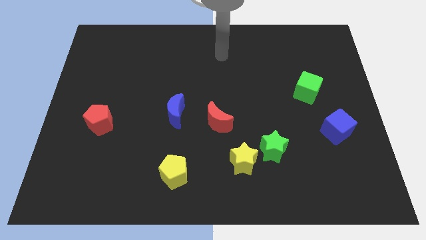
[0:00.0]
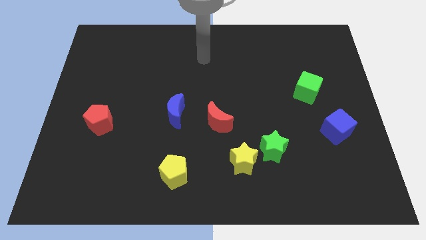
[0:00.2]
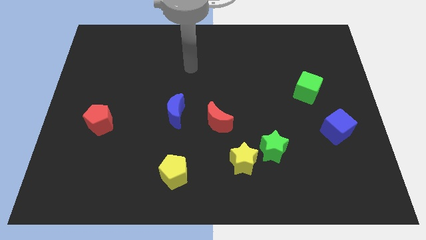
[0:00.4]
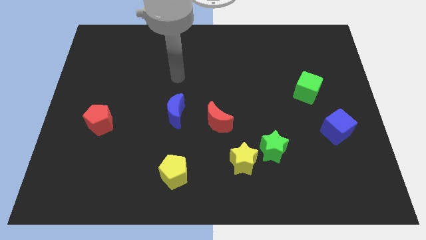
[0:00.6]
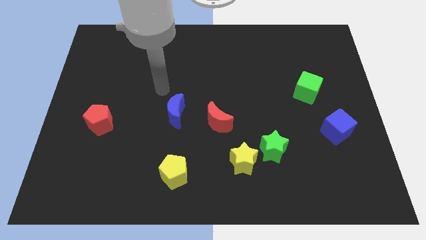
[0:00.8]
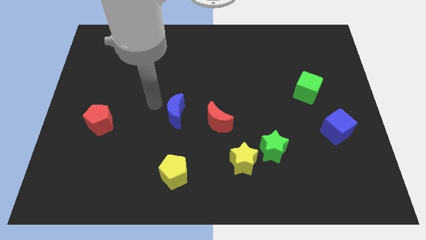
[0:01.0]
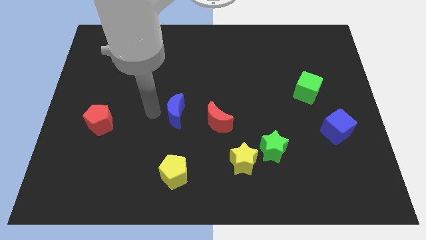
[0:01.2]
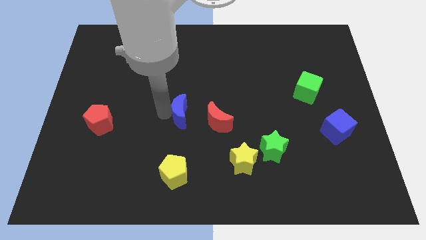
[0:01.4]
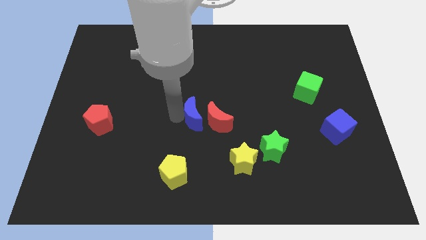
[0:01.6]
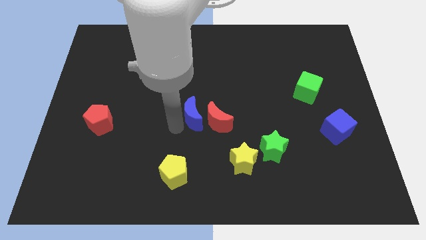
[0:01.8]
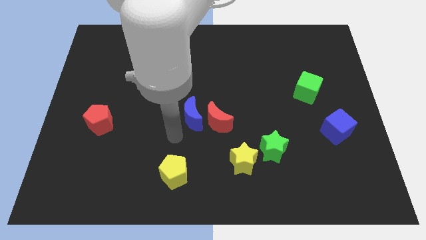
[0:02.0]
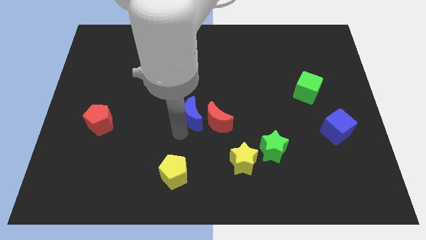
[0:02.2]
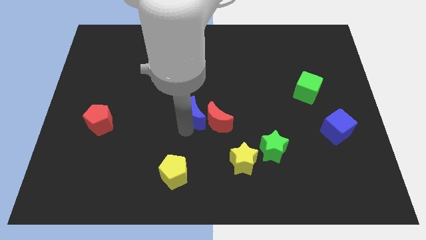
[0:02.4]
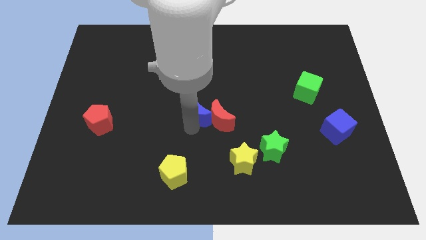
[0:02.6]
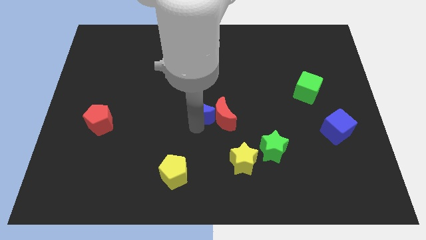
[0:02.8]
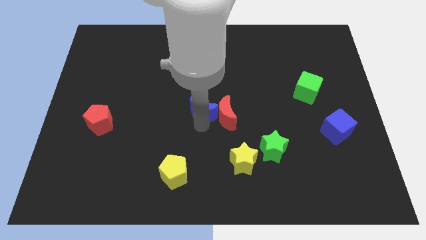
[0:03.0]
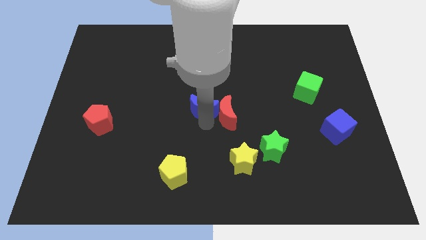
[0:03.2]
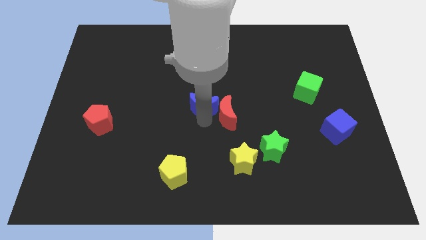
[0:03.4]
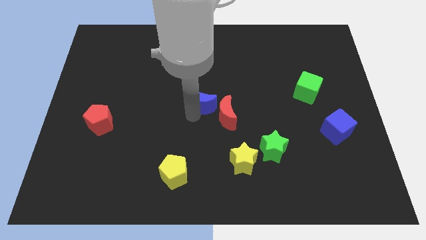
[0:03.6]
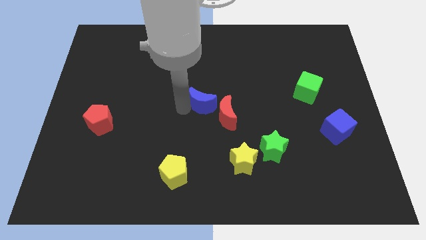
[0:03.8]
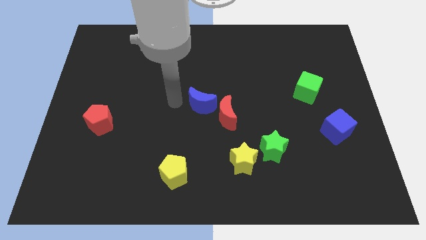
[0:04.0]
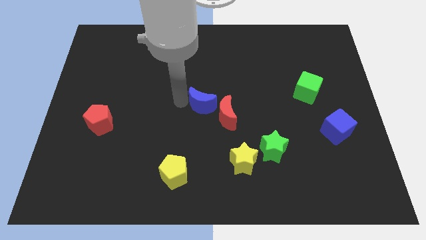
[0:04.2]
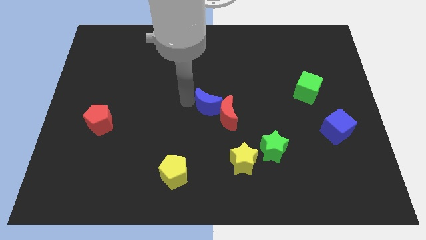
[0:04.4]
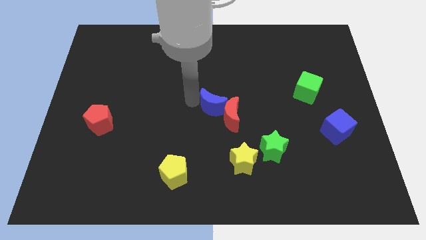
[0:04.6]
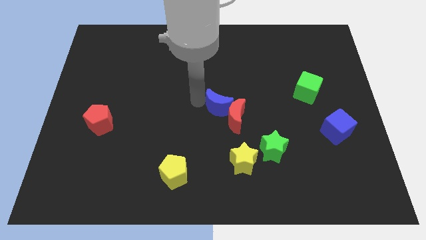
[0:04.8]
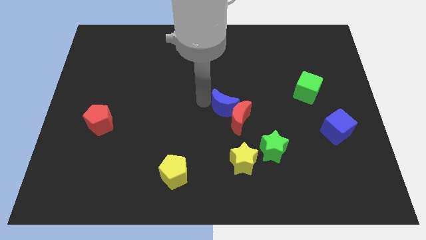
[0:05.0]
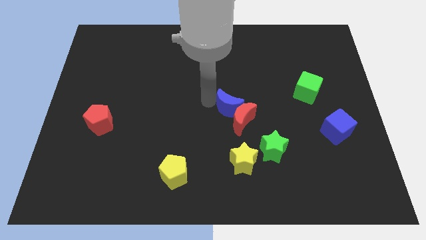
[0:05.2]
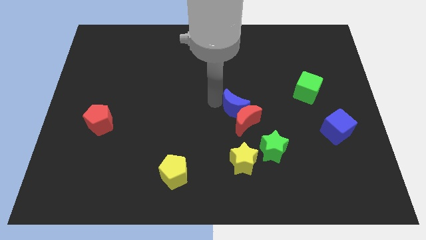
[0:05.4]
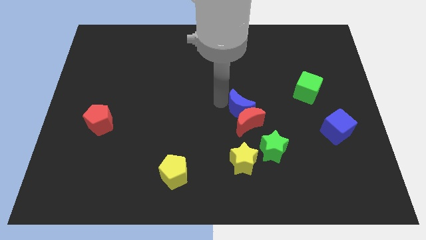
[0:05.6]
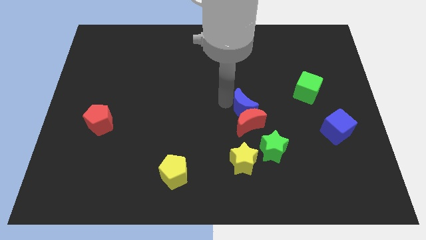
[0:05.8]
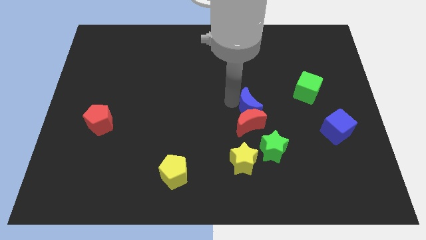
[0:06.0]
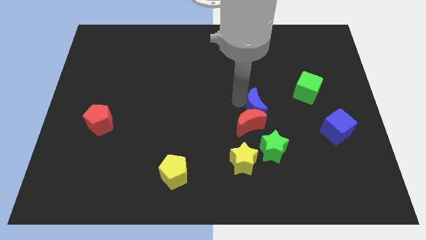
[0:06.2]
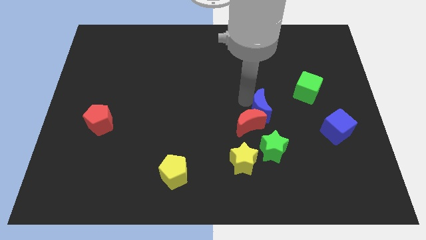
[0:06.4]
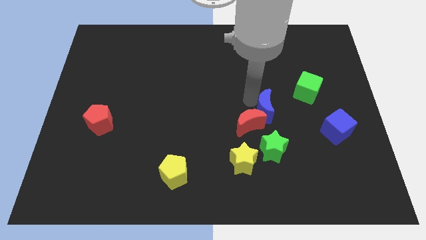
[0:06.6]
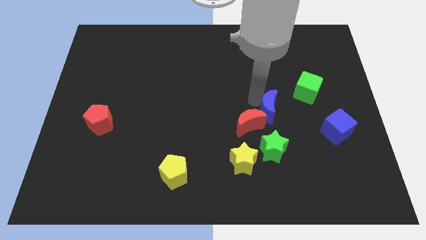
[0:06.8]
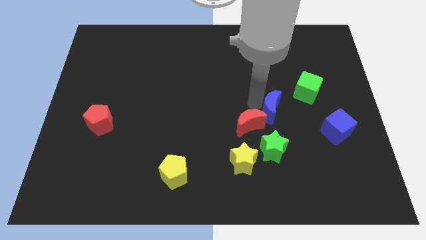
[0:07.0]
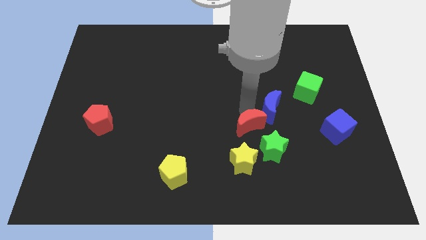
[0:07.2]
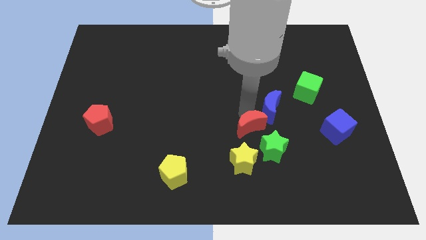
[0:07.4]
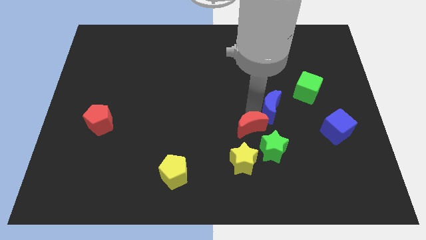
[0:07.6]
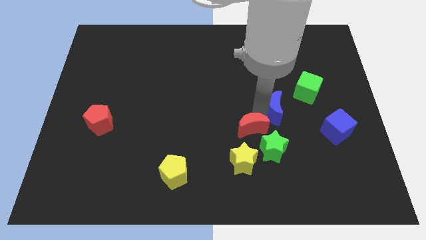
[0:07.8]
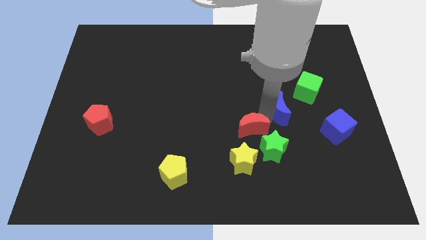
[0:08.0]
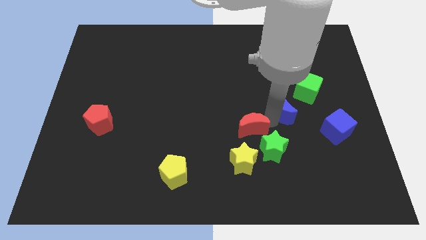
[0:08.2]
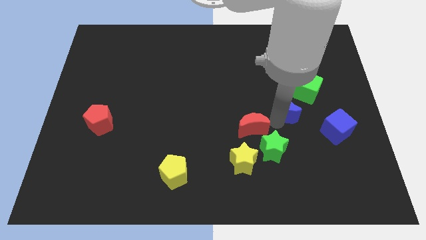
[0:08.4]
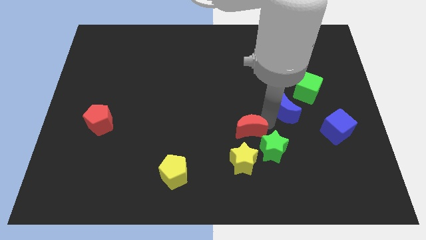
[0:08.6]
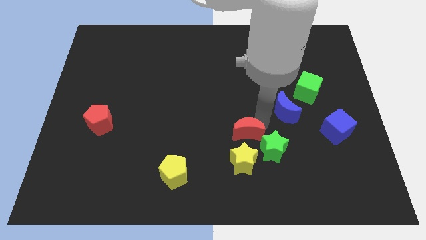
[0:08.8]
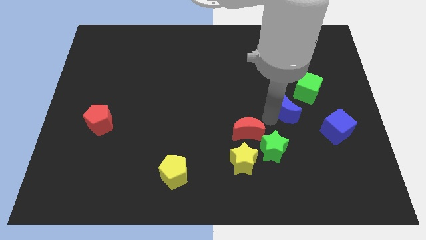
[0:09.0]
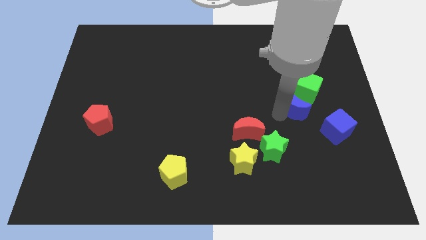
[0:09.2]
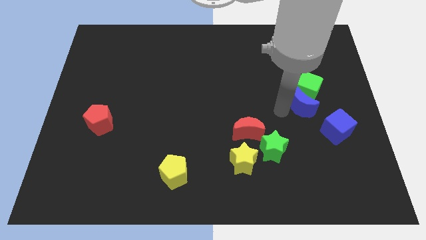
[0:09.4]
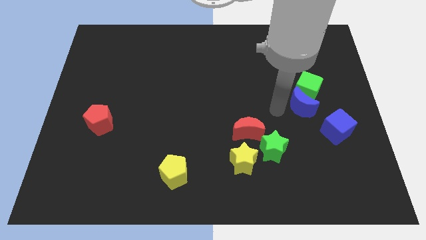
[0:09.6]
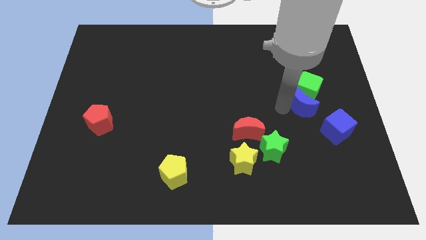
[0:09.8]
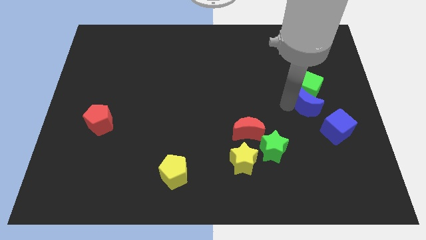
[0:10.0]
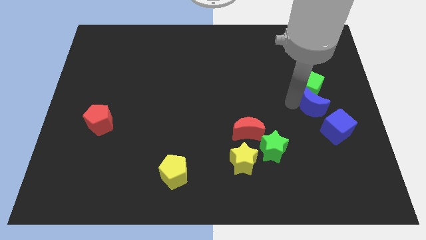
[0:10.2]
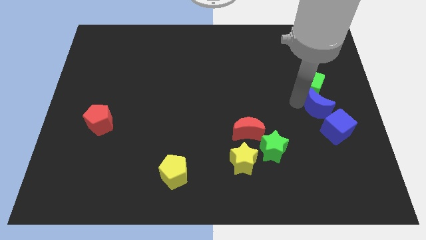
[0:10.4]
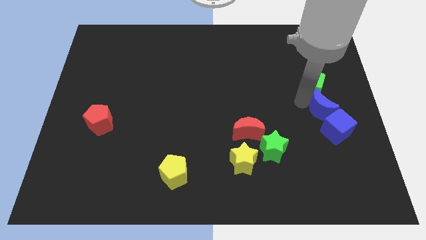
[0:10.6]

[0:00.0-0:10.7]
move the blue moon to the right side

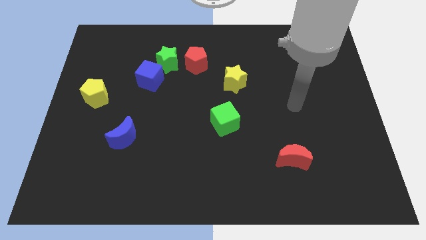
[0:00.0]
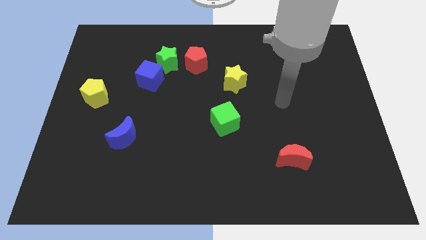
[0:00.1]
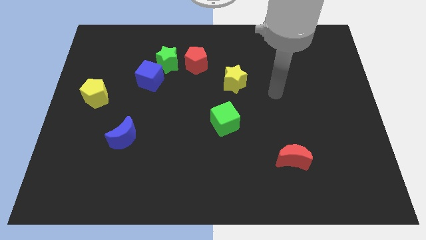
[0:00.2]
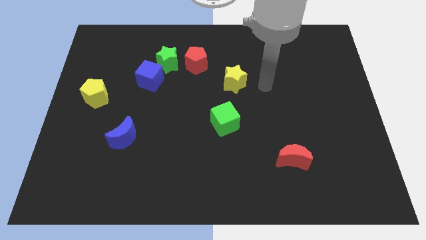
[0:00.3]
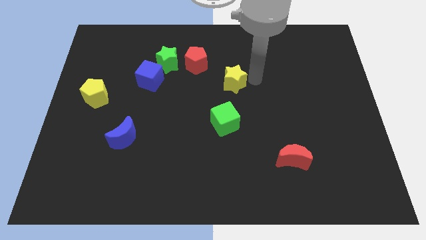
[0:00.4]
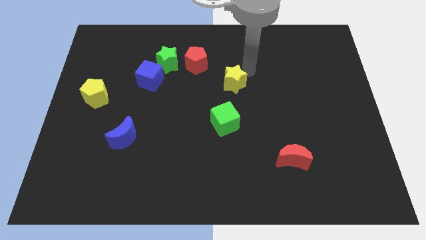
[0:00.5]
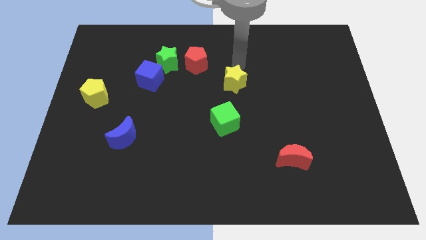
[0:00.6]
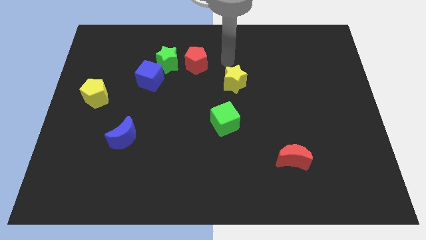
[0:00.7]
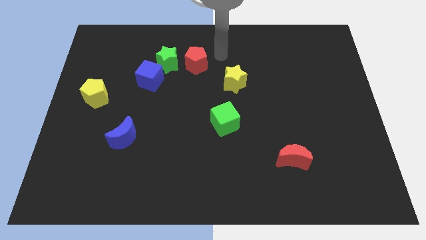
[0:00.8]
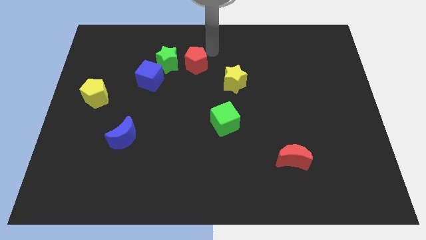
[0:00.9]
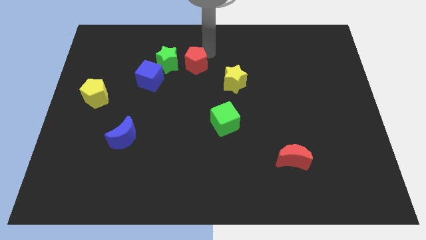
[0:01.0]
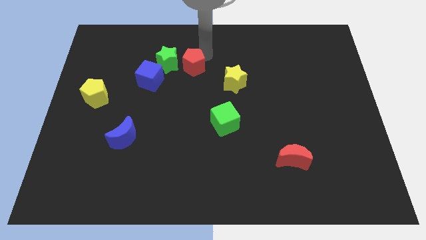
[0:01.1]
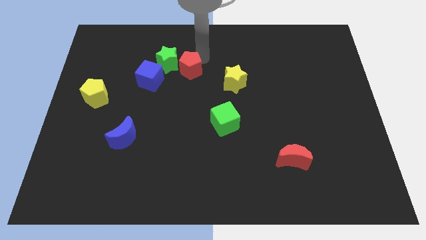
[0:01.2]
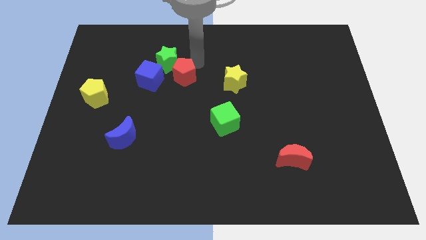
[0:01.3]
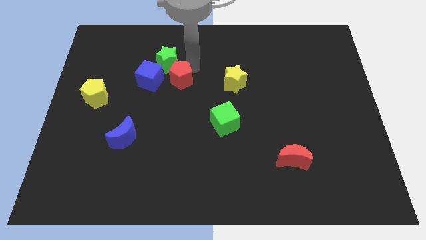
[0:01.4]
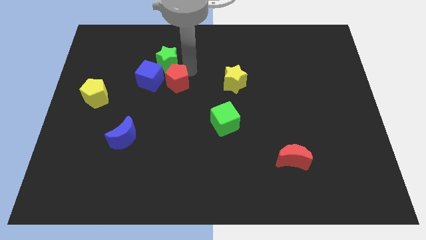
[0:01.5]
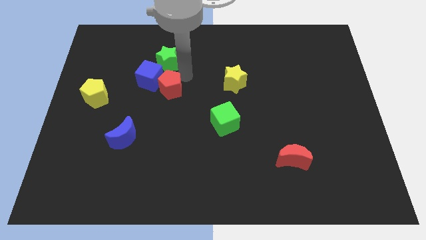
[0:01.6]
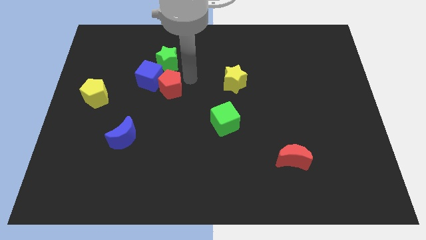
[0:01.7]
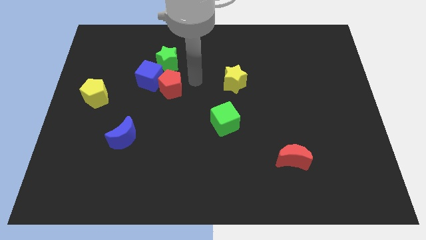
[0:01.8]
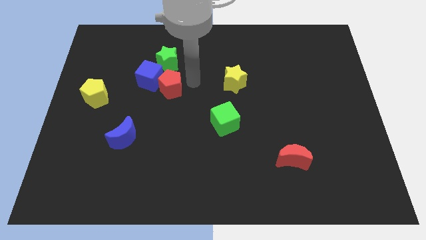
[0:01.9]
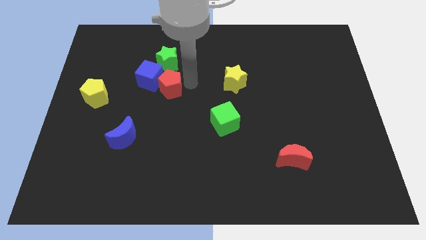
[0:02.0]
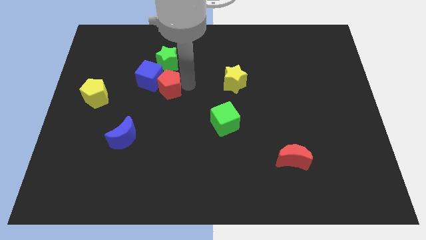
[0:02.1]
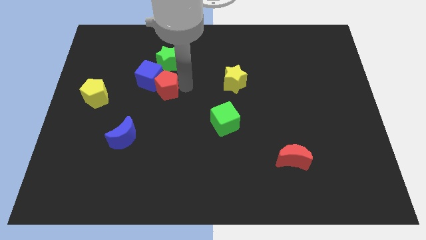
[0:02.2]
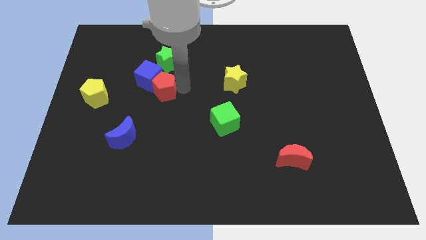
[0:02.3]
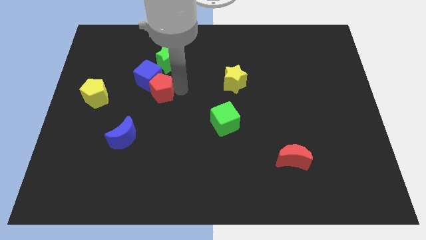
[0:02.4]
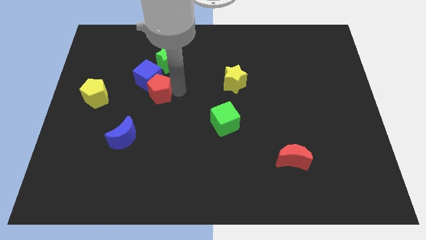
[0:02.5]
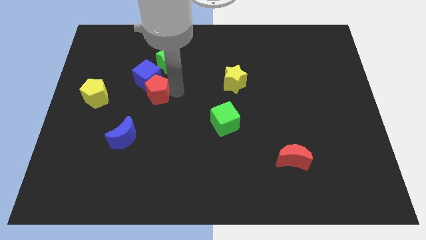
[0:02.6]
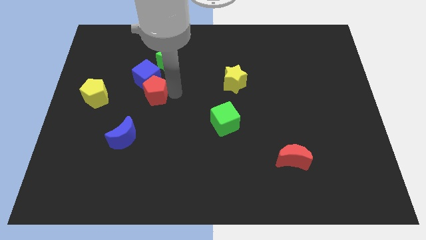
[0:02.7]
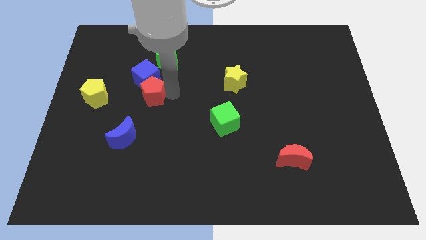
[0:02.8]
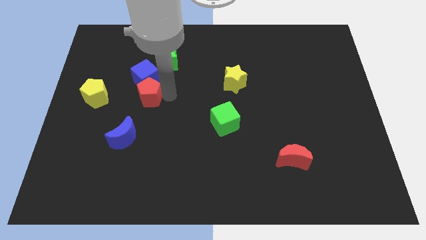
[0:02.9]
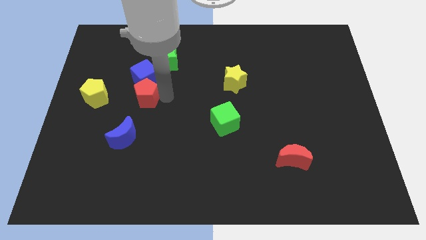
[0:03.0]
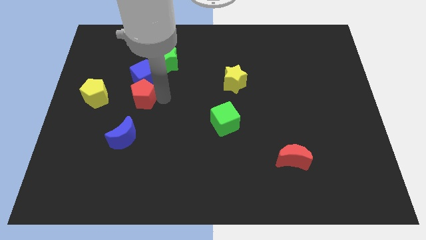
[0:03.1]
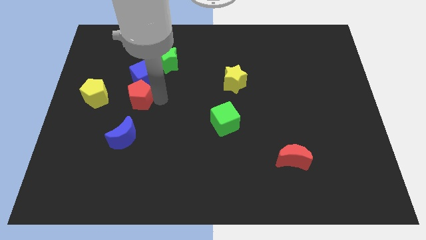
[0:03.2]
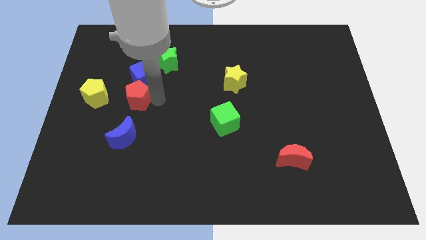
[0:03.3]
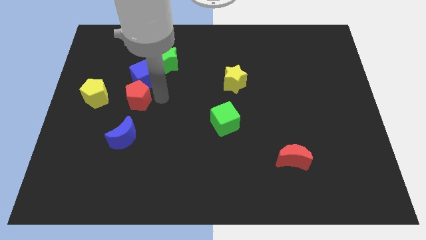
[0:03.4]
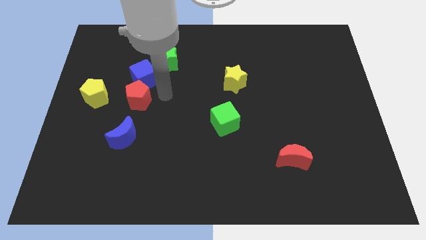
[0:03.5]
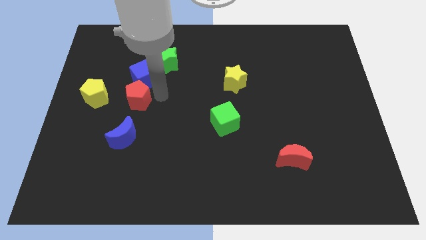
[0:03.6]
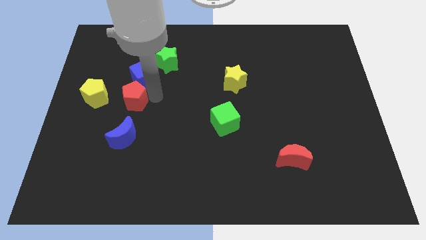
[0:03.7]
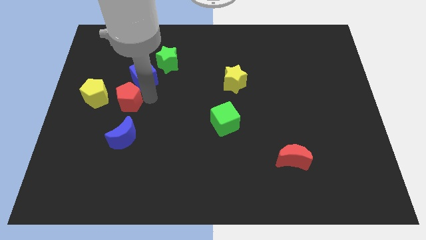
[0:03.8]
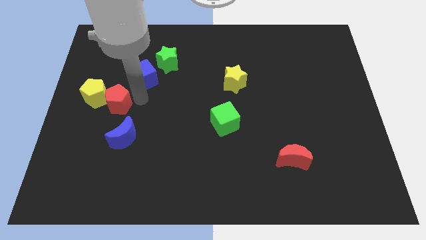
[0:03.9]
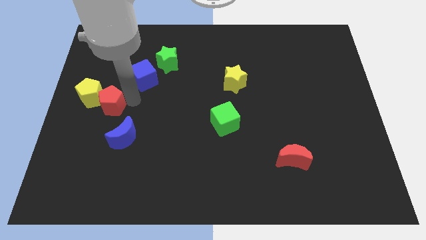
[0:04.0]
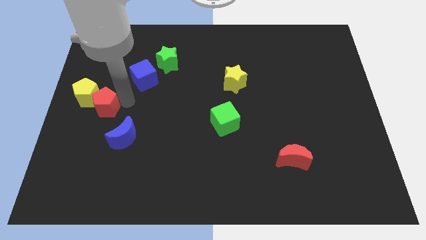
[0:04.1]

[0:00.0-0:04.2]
slide the red pentagon to the left side of the board
